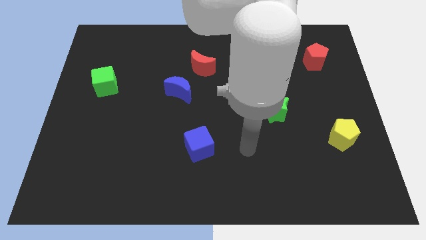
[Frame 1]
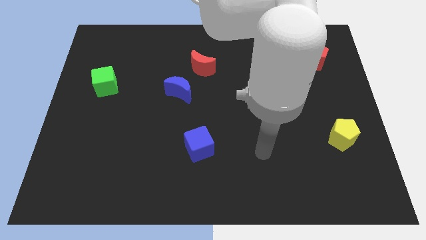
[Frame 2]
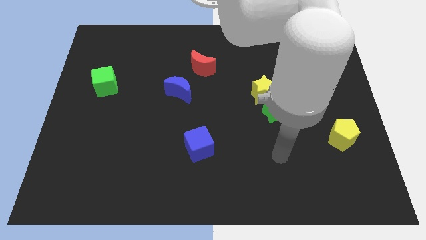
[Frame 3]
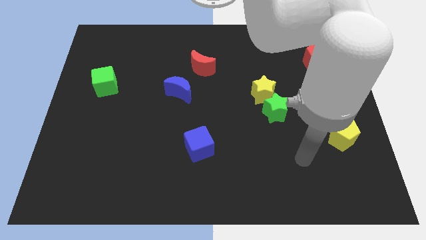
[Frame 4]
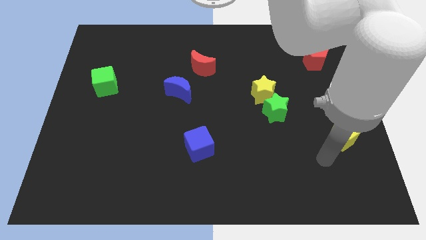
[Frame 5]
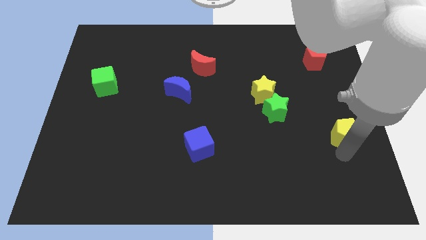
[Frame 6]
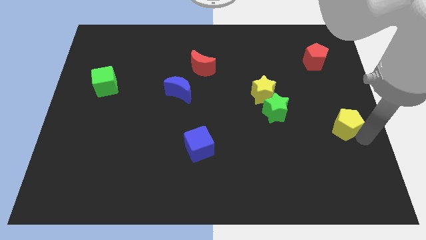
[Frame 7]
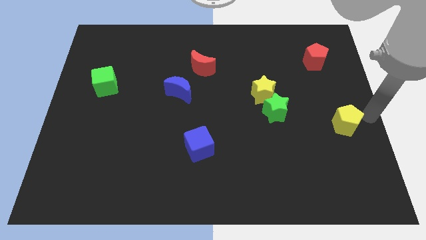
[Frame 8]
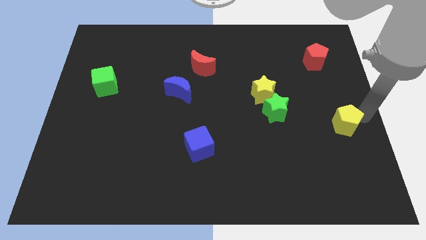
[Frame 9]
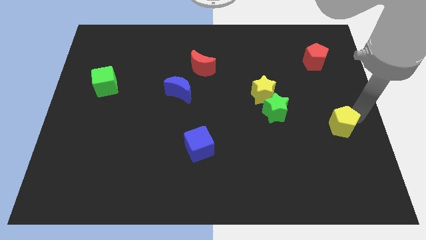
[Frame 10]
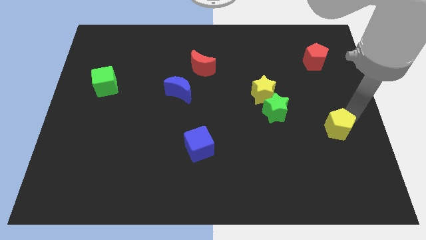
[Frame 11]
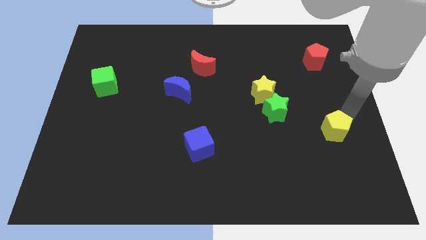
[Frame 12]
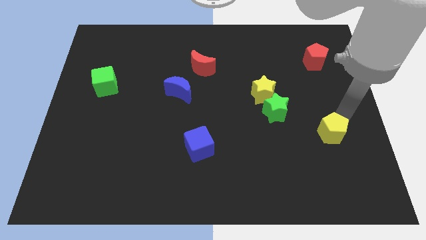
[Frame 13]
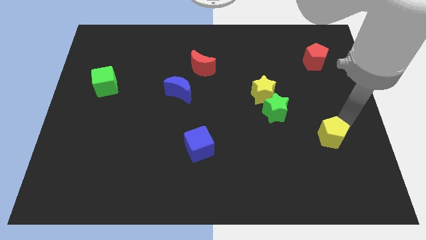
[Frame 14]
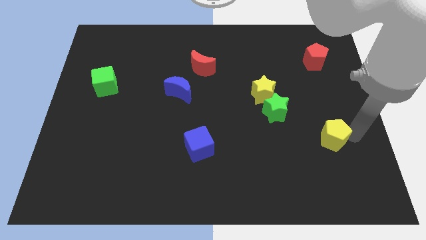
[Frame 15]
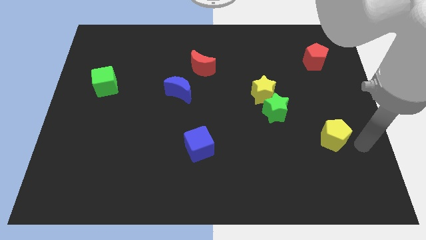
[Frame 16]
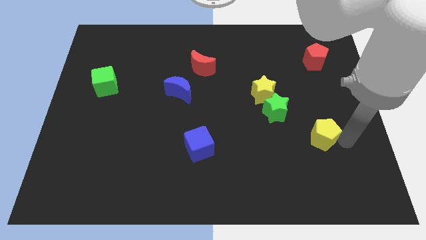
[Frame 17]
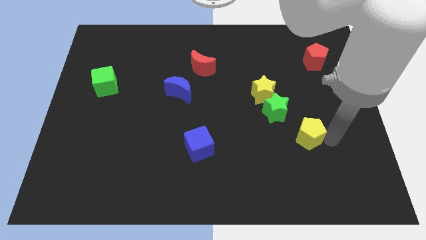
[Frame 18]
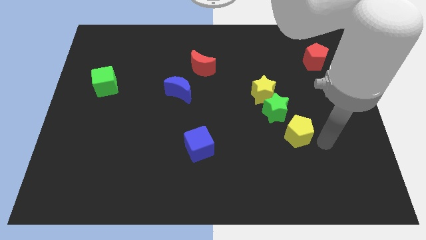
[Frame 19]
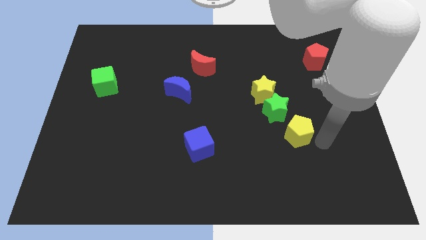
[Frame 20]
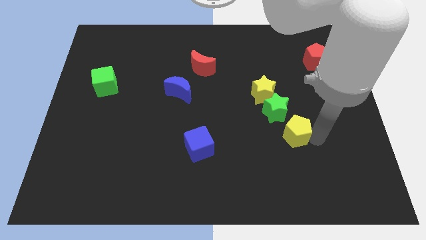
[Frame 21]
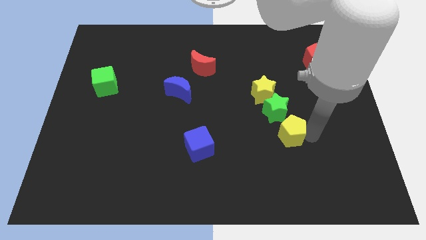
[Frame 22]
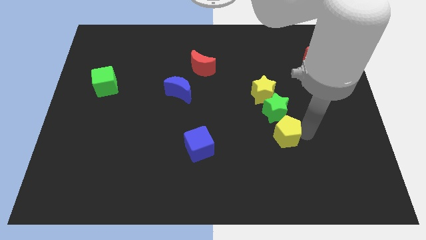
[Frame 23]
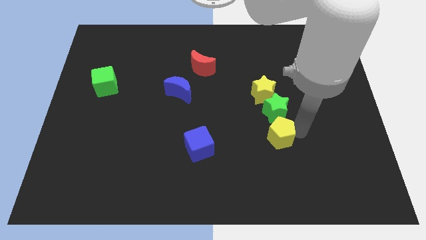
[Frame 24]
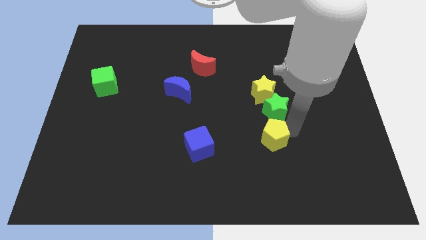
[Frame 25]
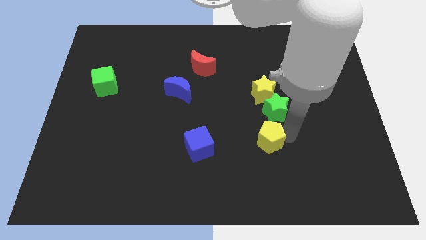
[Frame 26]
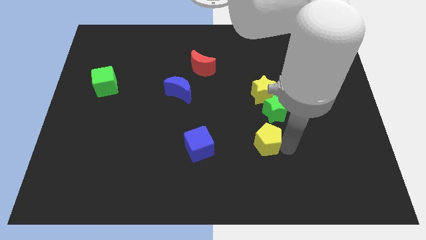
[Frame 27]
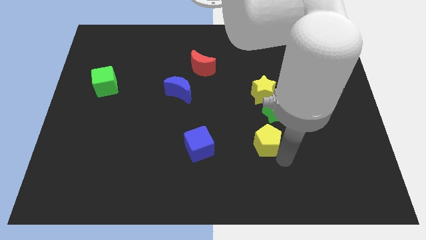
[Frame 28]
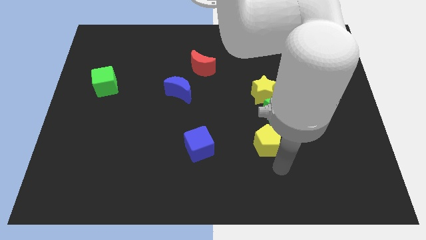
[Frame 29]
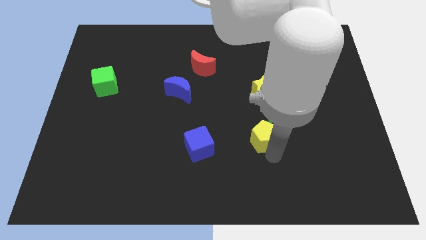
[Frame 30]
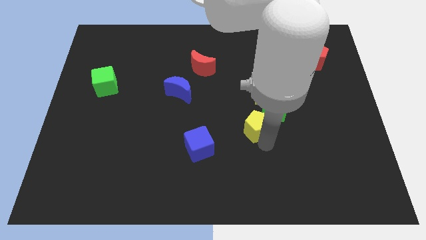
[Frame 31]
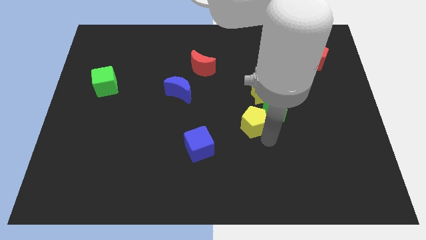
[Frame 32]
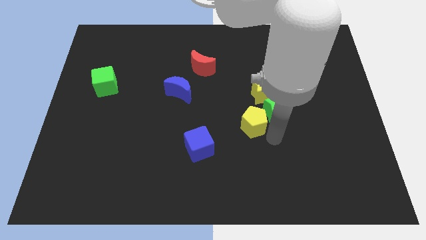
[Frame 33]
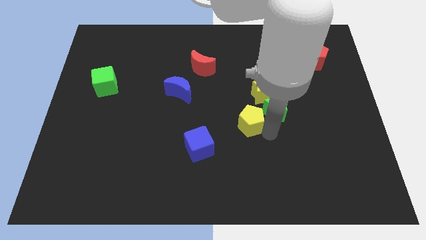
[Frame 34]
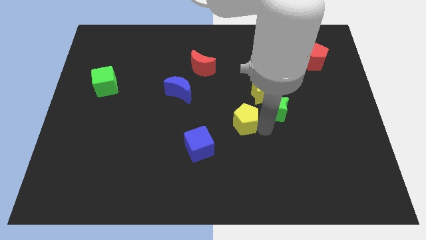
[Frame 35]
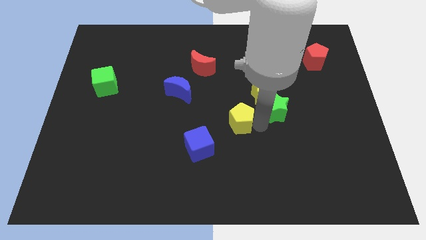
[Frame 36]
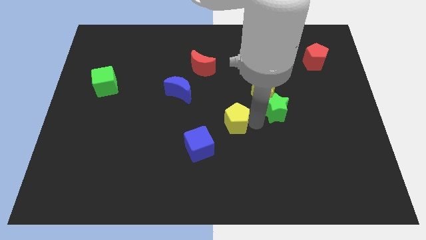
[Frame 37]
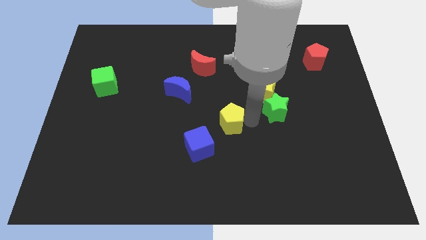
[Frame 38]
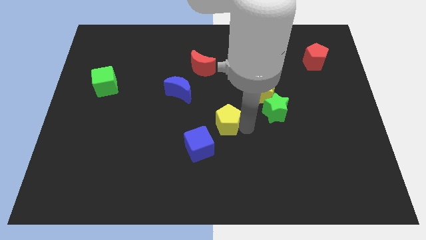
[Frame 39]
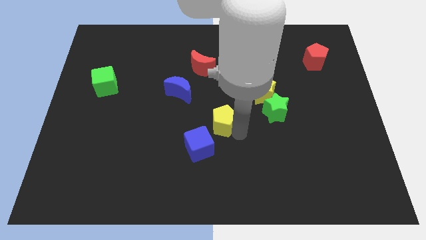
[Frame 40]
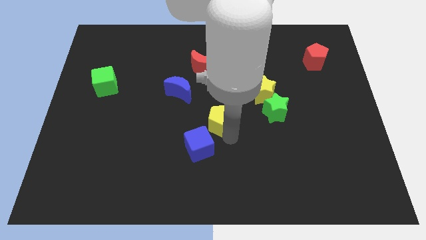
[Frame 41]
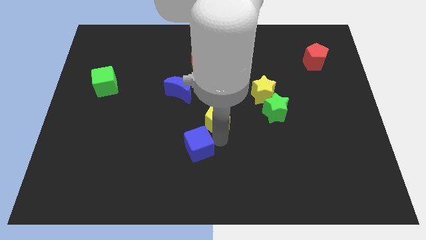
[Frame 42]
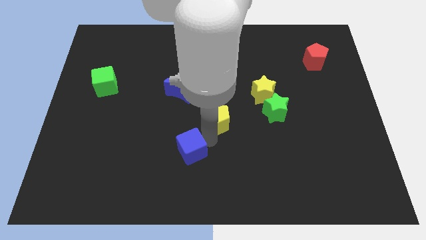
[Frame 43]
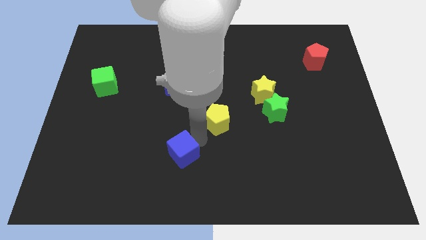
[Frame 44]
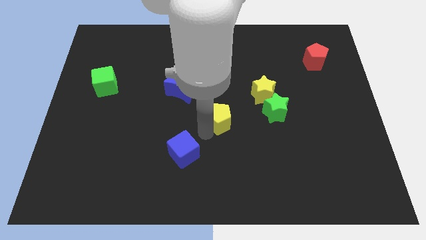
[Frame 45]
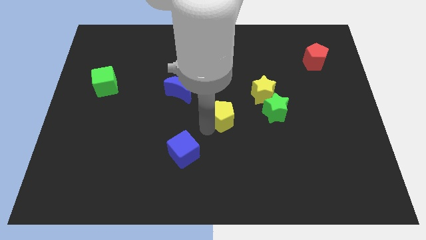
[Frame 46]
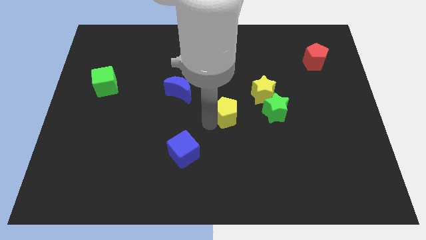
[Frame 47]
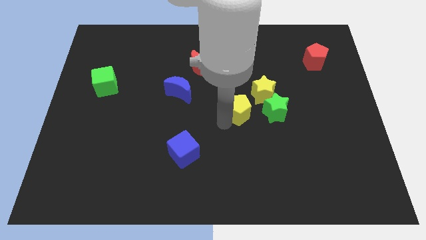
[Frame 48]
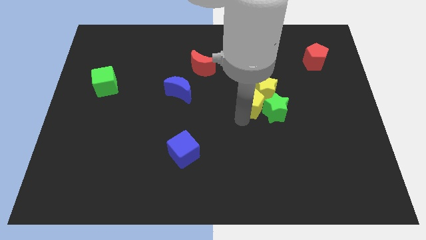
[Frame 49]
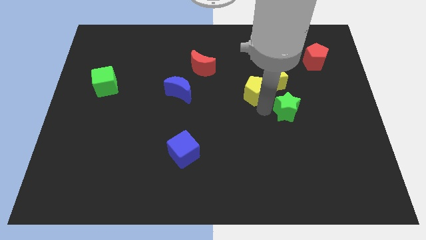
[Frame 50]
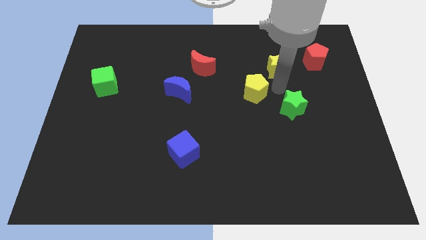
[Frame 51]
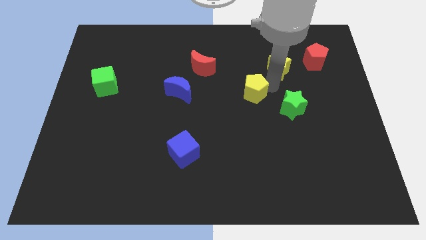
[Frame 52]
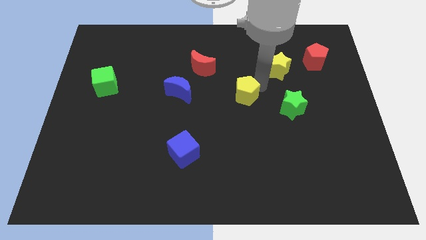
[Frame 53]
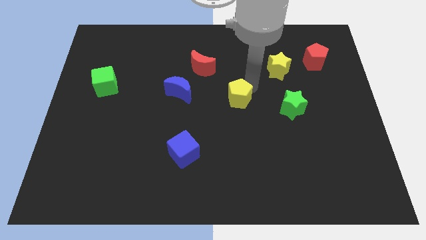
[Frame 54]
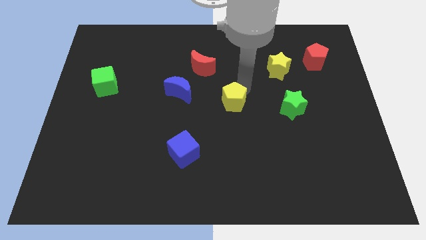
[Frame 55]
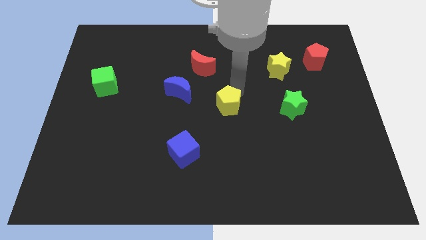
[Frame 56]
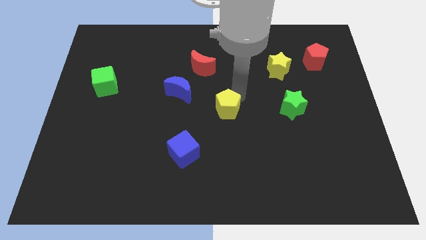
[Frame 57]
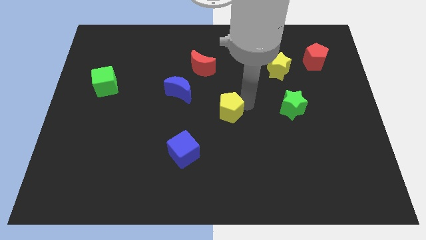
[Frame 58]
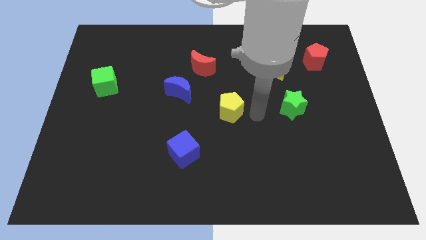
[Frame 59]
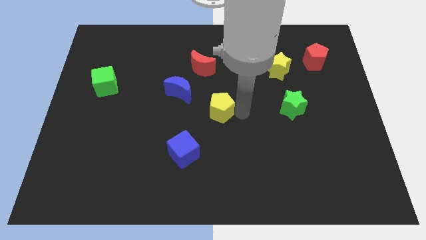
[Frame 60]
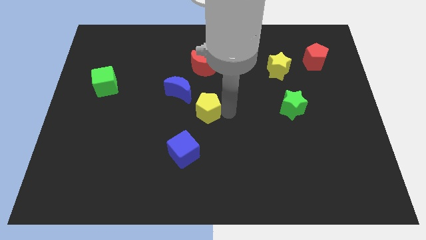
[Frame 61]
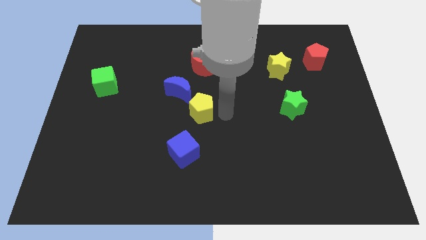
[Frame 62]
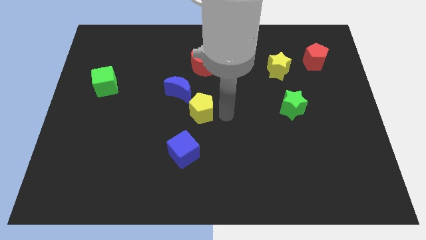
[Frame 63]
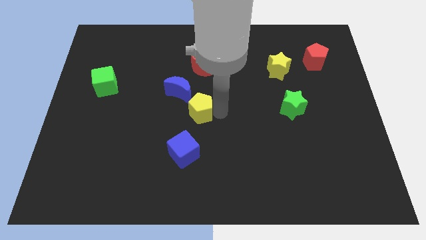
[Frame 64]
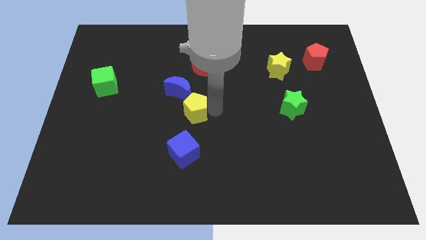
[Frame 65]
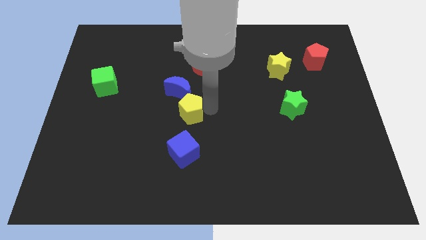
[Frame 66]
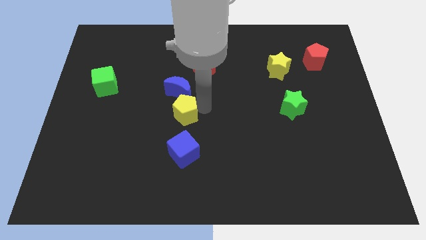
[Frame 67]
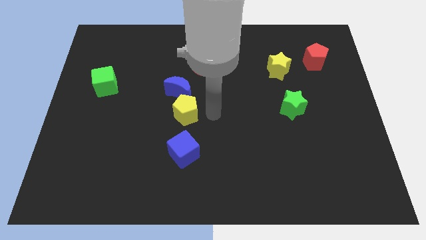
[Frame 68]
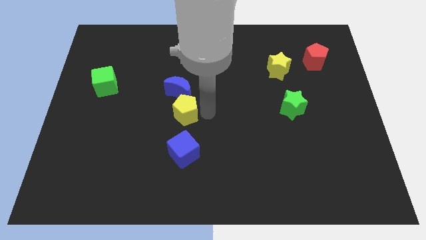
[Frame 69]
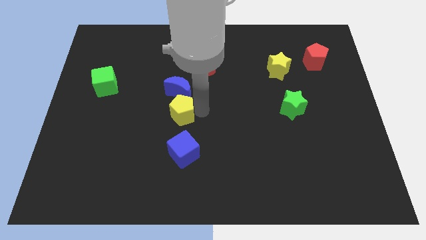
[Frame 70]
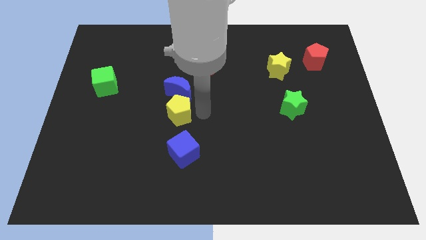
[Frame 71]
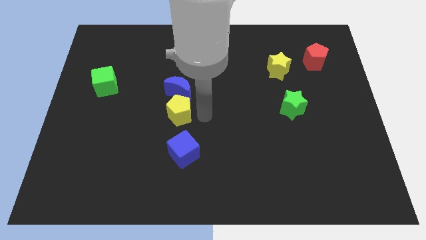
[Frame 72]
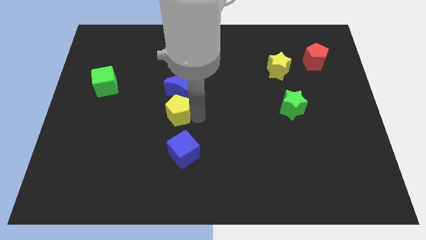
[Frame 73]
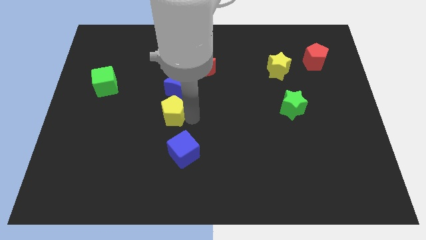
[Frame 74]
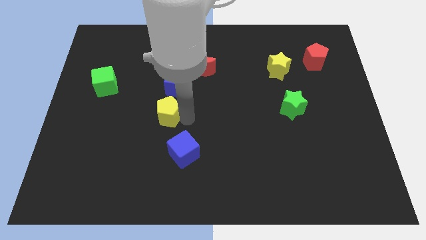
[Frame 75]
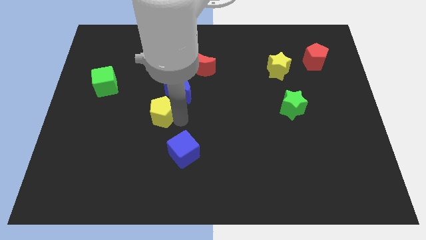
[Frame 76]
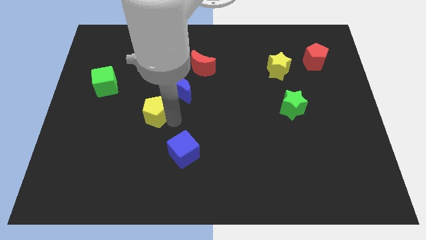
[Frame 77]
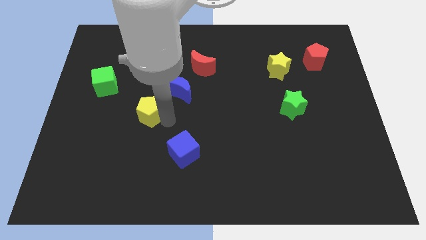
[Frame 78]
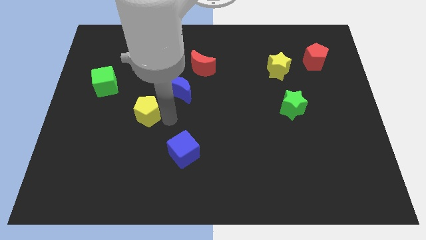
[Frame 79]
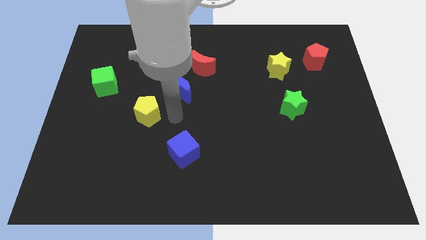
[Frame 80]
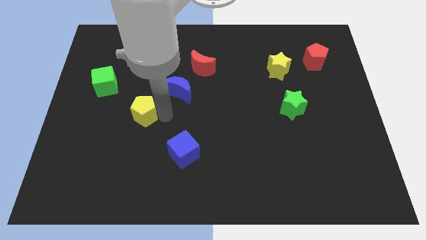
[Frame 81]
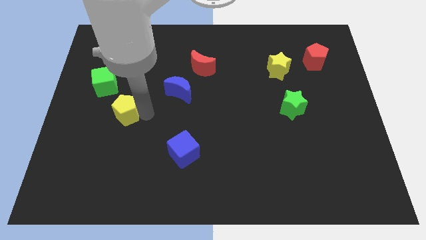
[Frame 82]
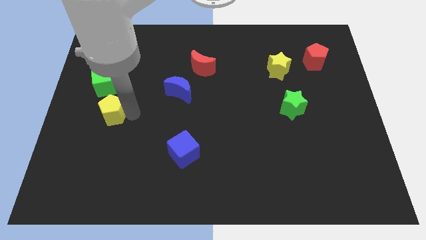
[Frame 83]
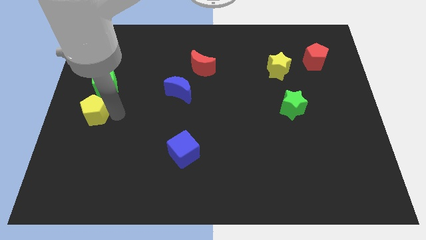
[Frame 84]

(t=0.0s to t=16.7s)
slide the yellow pentagon to the left side of the board
